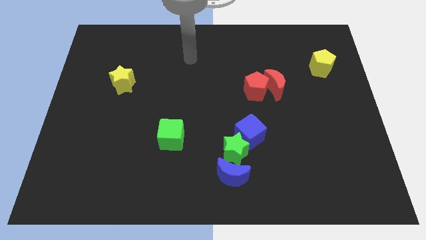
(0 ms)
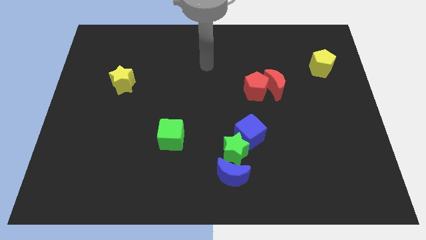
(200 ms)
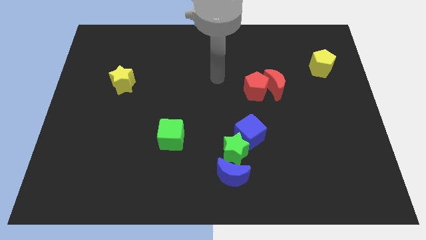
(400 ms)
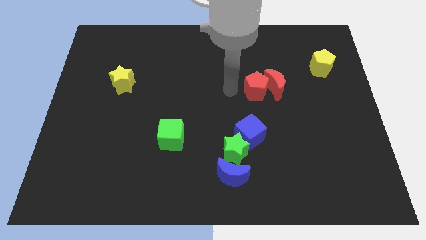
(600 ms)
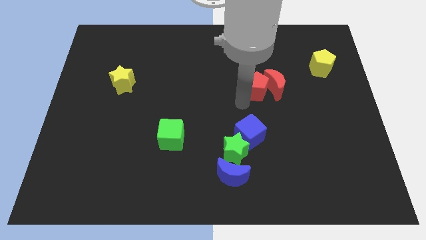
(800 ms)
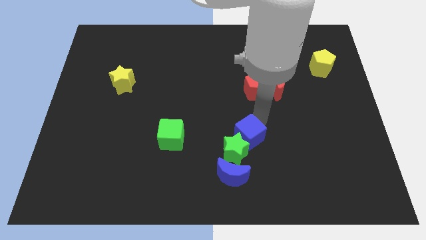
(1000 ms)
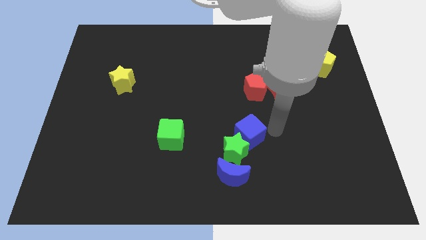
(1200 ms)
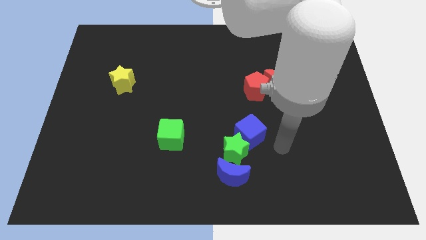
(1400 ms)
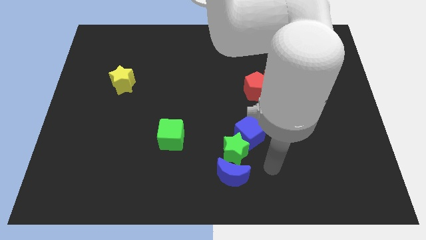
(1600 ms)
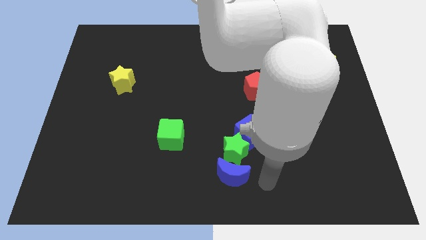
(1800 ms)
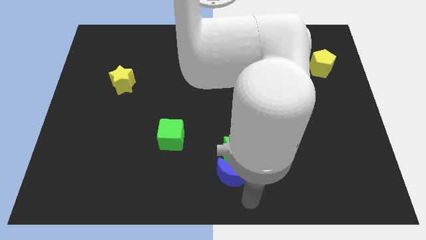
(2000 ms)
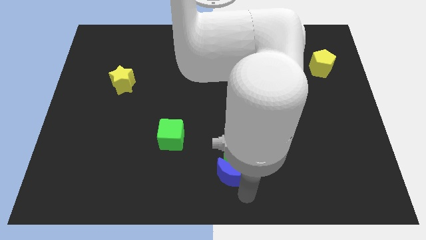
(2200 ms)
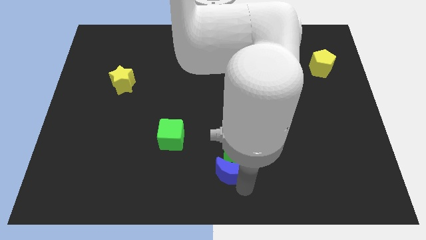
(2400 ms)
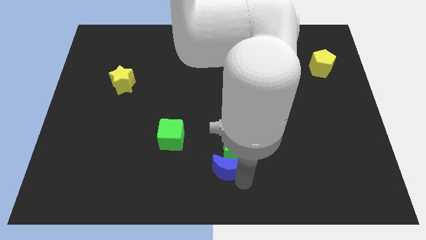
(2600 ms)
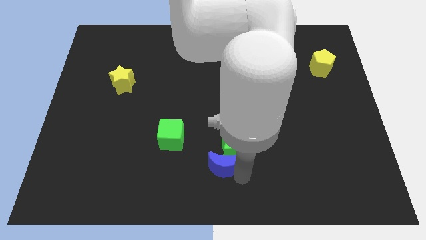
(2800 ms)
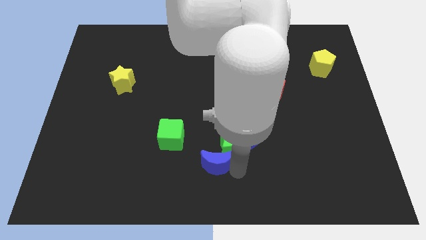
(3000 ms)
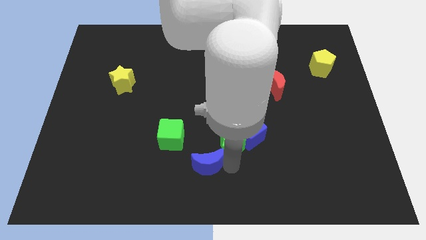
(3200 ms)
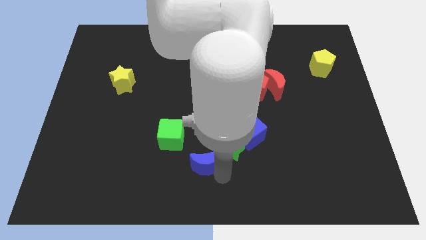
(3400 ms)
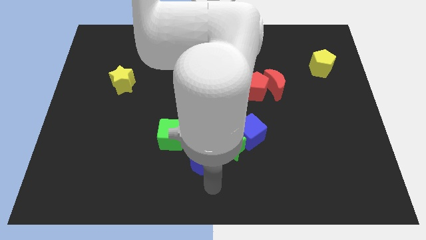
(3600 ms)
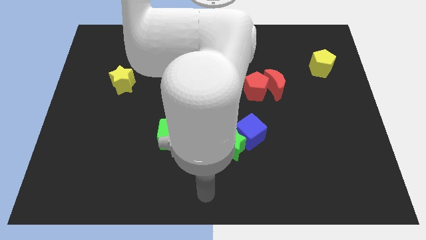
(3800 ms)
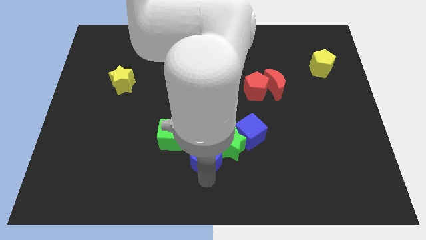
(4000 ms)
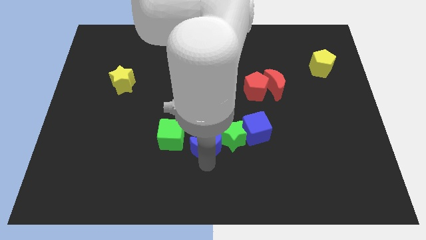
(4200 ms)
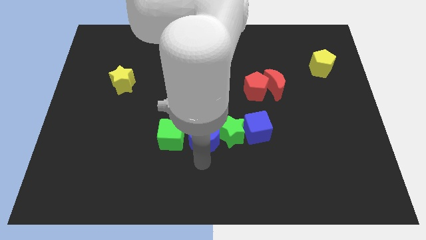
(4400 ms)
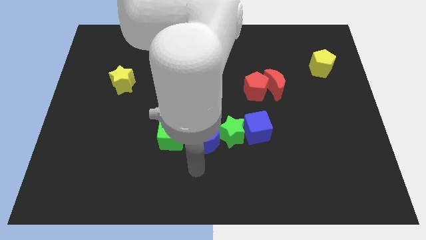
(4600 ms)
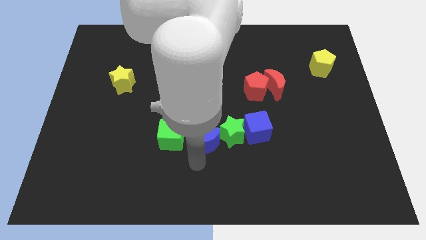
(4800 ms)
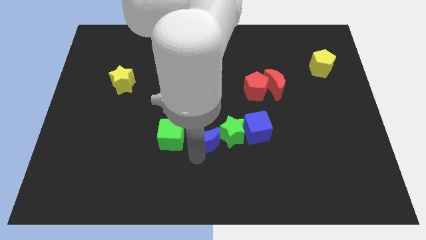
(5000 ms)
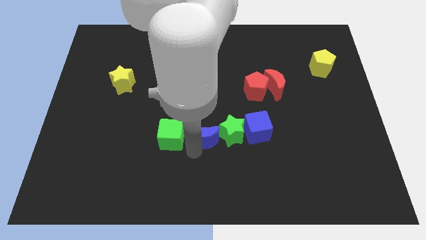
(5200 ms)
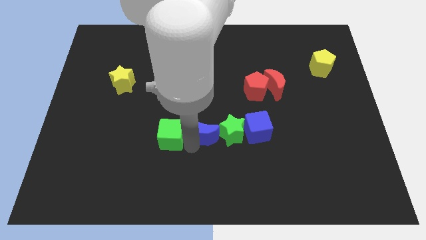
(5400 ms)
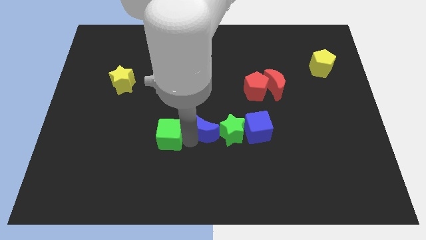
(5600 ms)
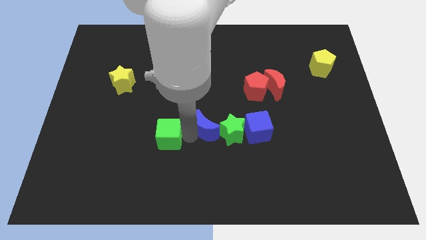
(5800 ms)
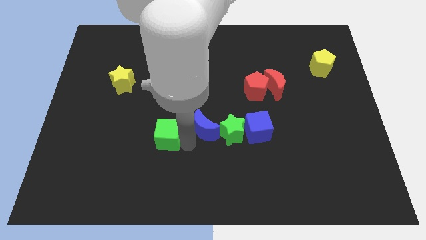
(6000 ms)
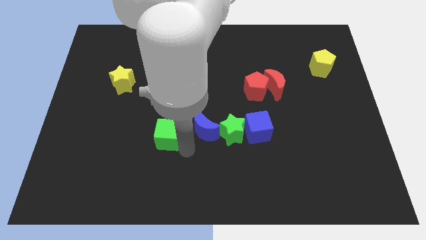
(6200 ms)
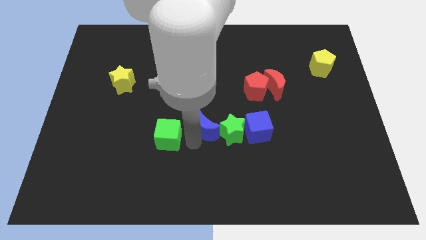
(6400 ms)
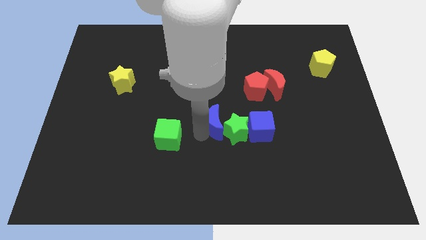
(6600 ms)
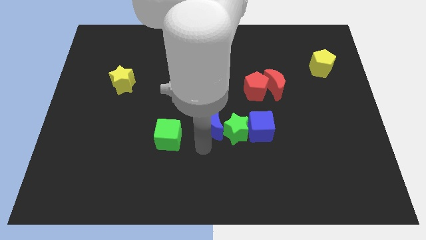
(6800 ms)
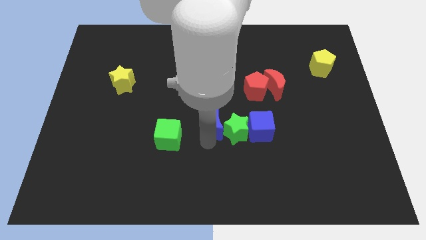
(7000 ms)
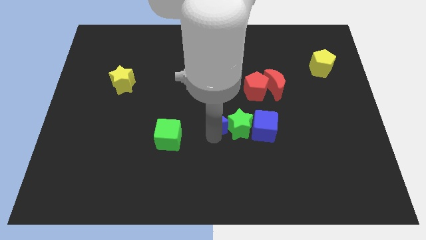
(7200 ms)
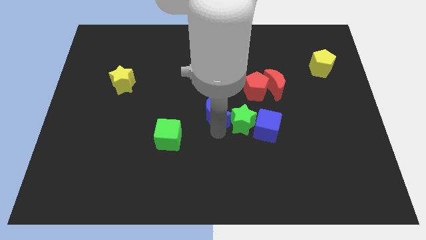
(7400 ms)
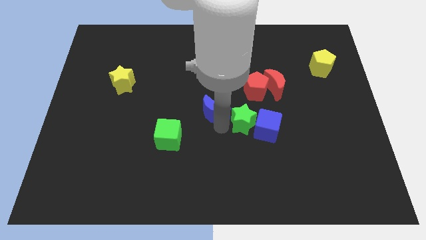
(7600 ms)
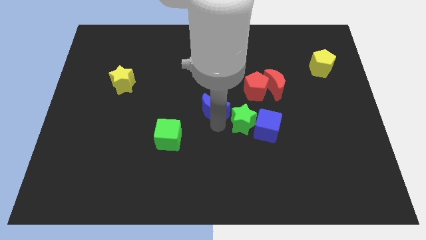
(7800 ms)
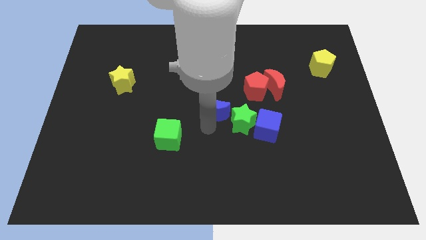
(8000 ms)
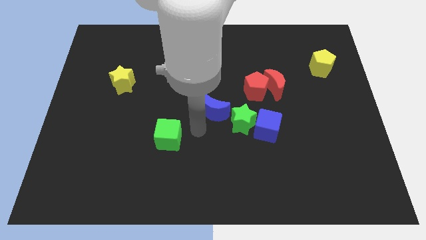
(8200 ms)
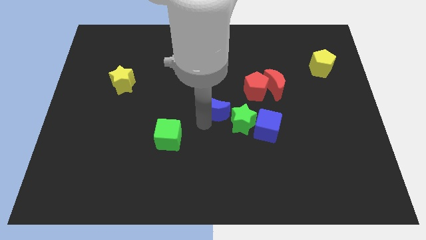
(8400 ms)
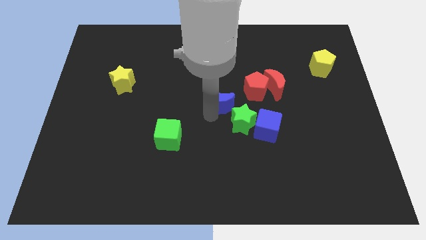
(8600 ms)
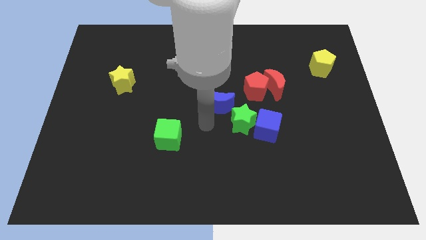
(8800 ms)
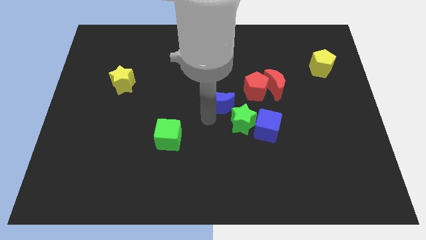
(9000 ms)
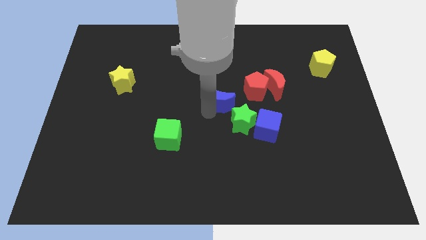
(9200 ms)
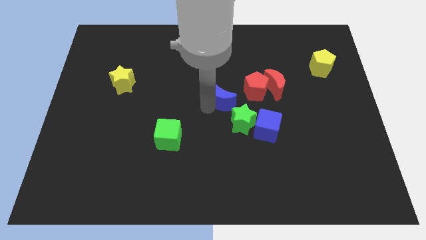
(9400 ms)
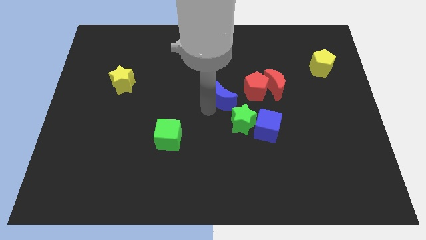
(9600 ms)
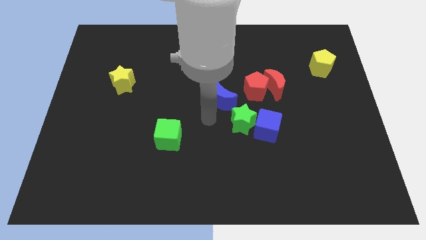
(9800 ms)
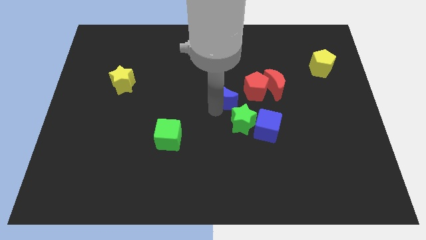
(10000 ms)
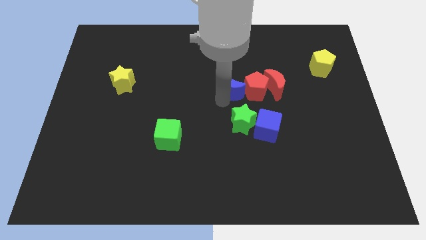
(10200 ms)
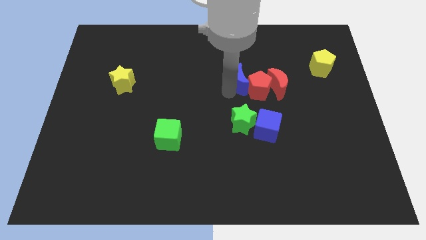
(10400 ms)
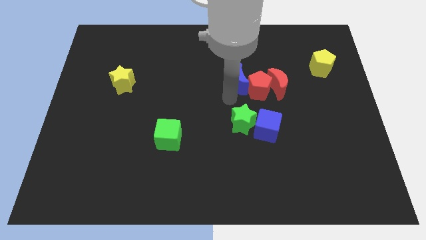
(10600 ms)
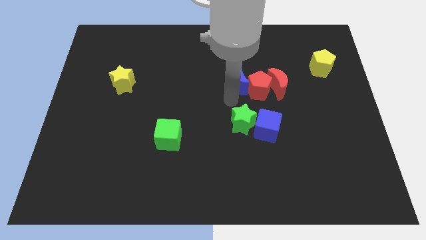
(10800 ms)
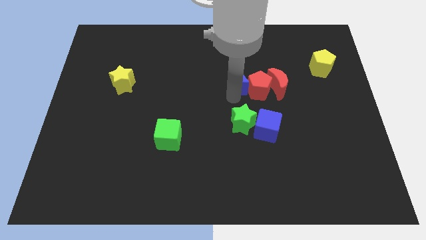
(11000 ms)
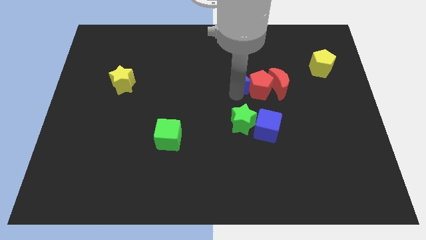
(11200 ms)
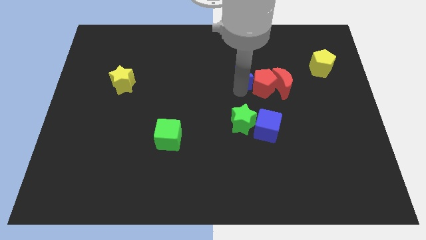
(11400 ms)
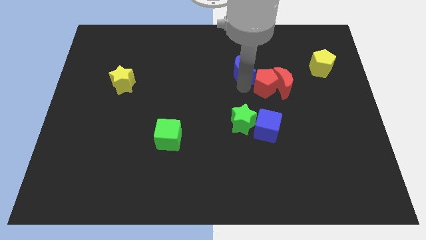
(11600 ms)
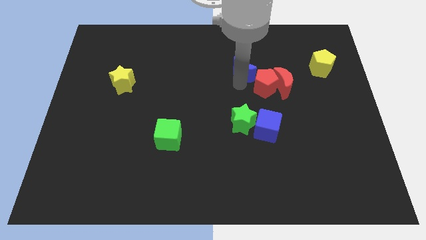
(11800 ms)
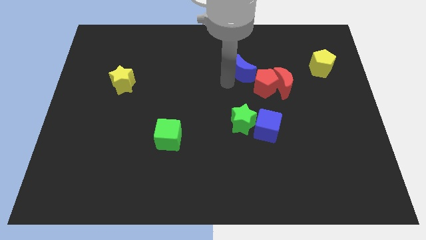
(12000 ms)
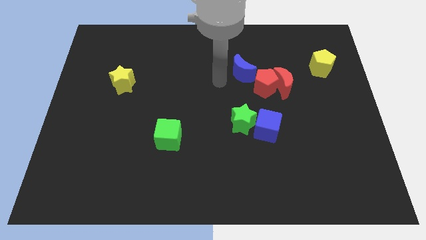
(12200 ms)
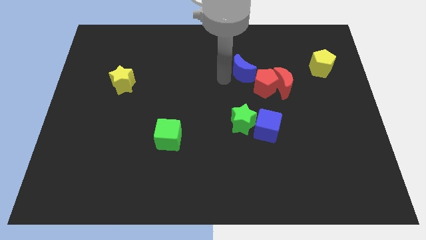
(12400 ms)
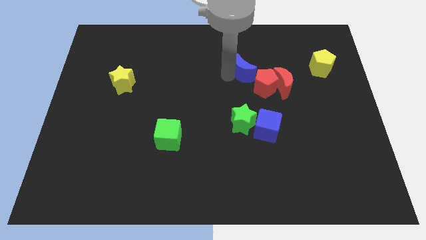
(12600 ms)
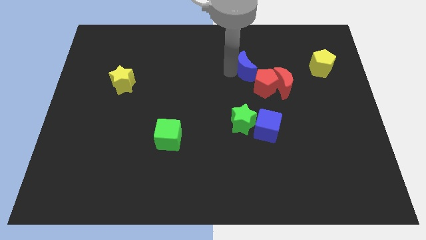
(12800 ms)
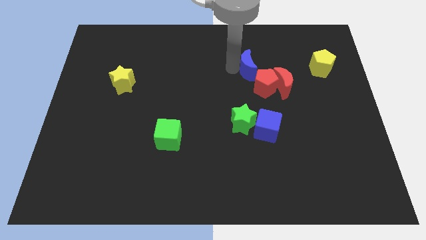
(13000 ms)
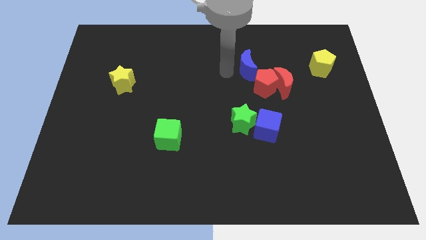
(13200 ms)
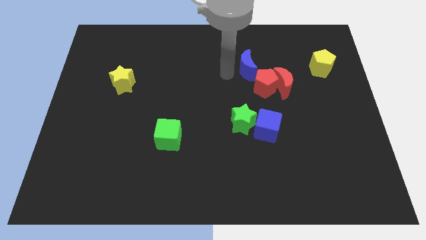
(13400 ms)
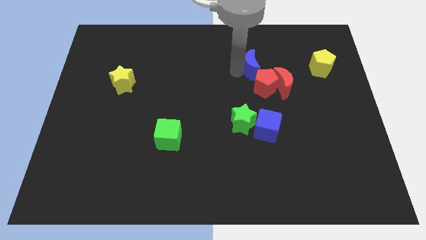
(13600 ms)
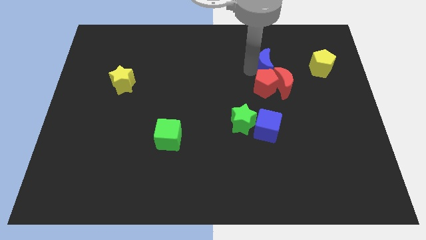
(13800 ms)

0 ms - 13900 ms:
move the blue moon to the top side of the red moon
